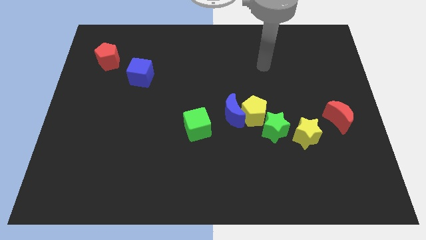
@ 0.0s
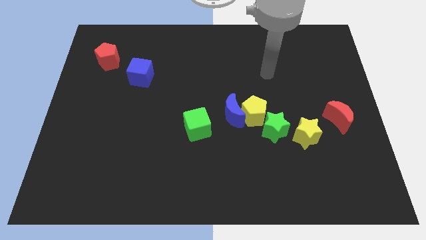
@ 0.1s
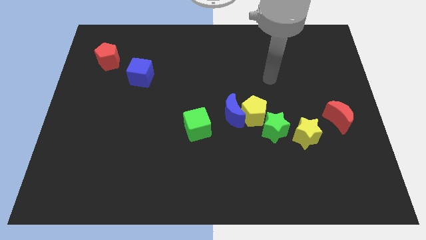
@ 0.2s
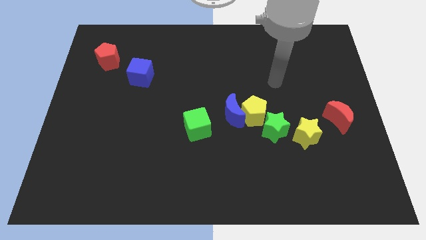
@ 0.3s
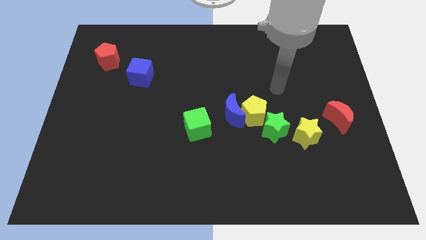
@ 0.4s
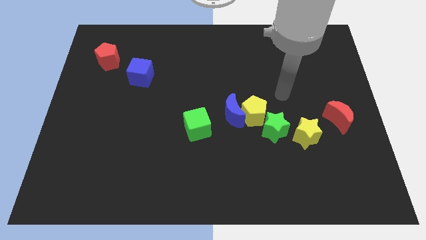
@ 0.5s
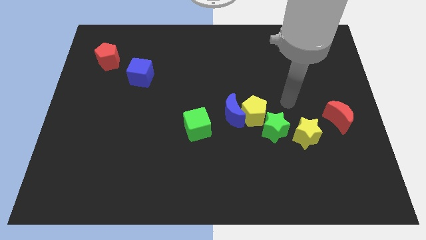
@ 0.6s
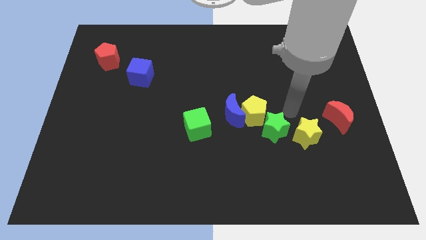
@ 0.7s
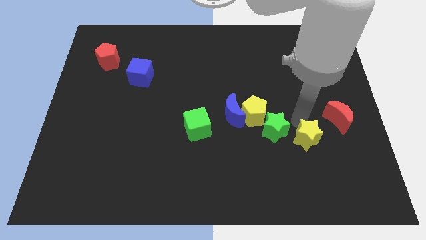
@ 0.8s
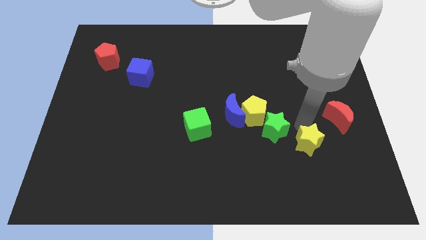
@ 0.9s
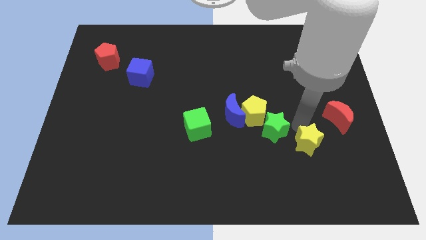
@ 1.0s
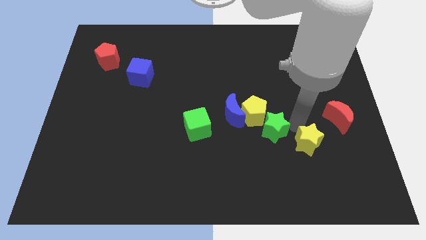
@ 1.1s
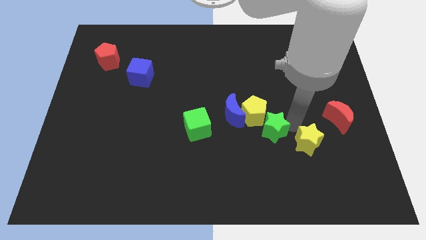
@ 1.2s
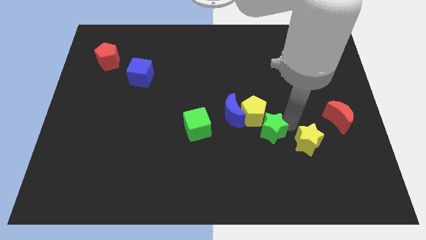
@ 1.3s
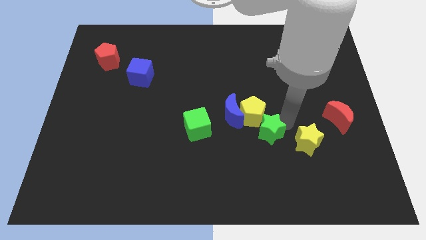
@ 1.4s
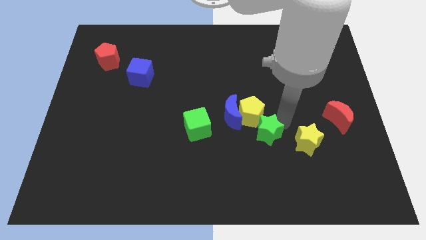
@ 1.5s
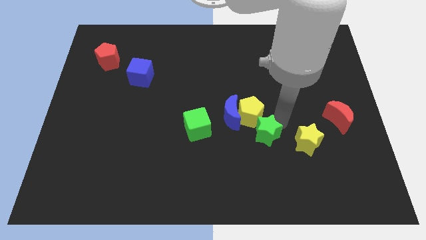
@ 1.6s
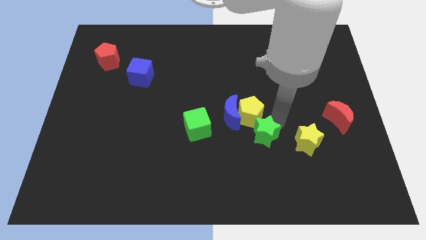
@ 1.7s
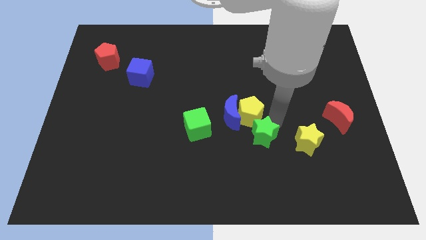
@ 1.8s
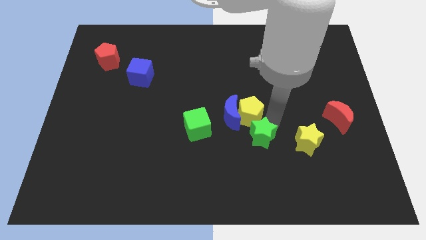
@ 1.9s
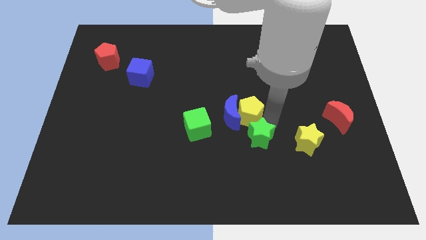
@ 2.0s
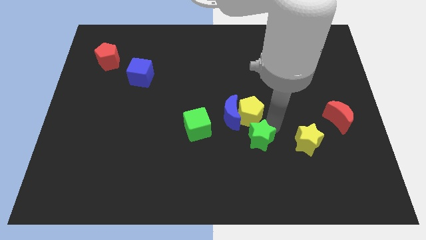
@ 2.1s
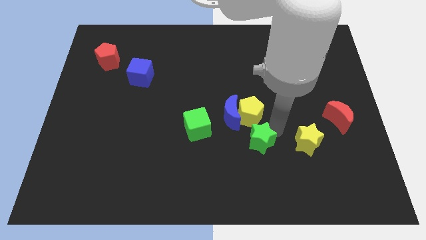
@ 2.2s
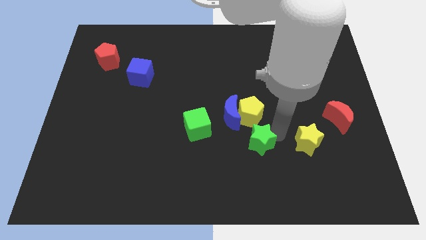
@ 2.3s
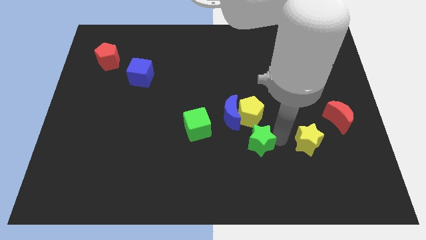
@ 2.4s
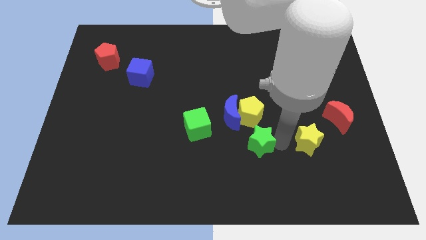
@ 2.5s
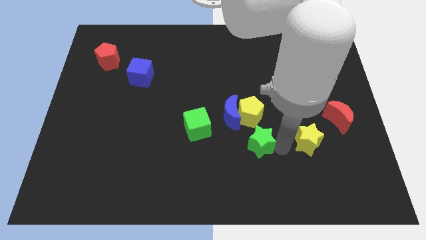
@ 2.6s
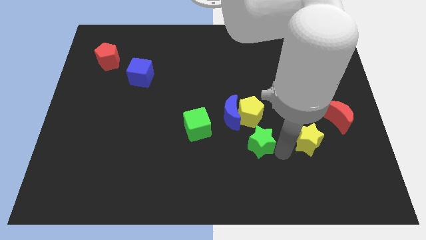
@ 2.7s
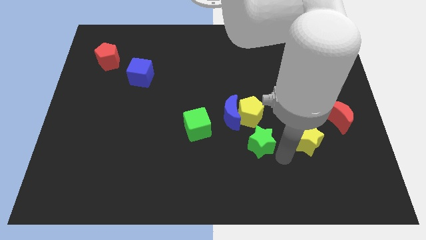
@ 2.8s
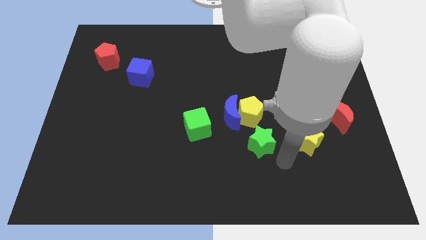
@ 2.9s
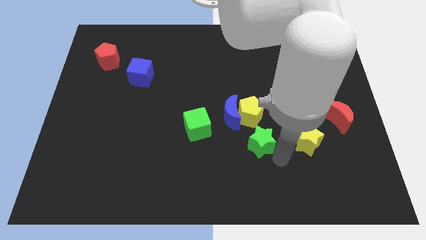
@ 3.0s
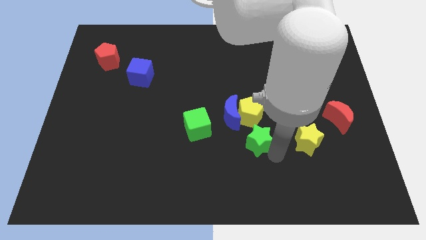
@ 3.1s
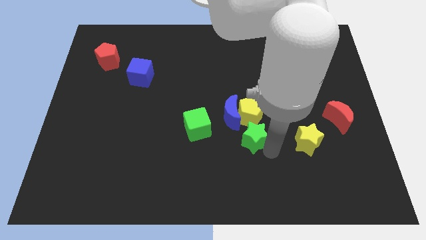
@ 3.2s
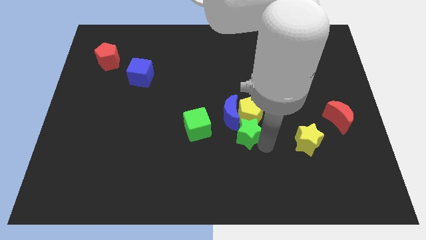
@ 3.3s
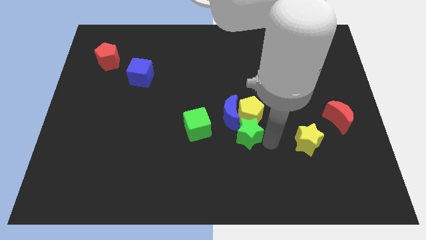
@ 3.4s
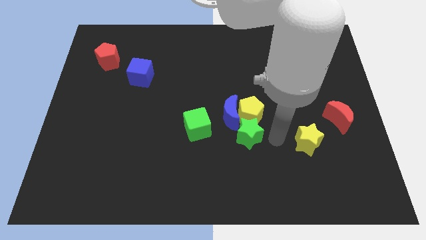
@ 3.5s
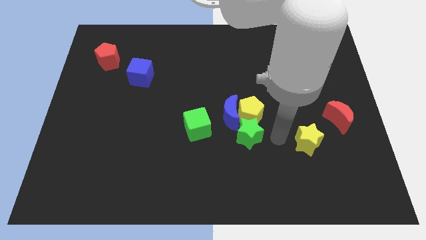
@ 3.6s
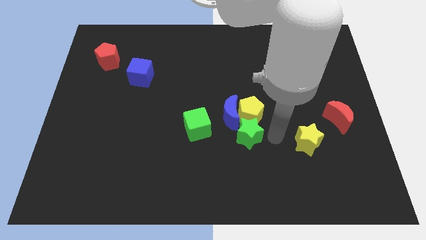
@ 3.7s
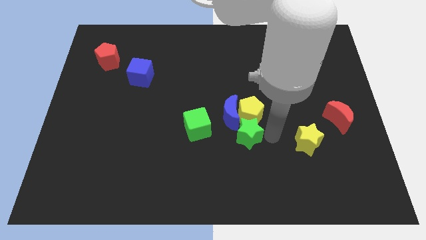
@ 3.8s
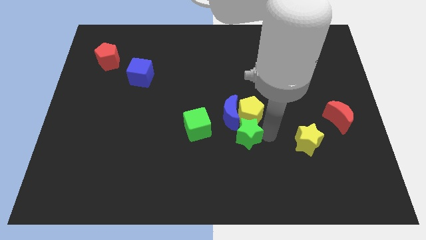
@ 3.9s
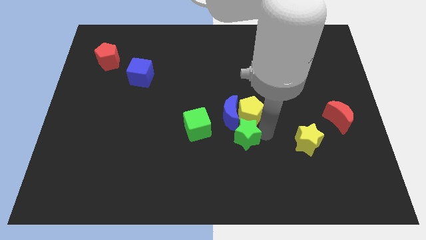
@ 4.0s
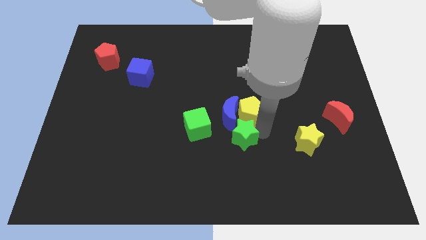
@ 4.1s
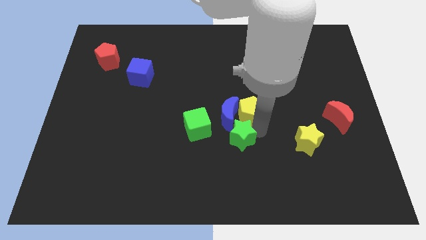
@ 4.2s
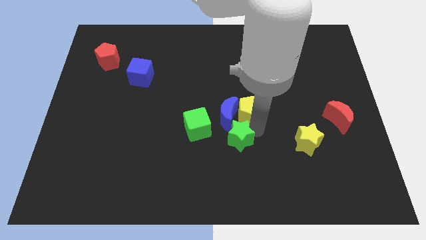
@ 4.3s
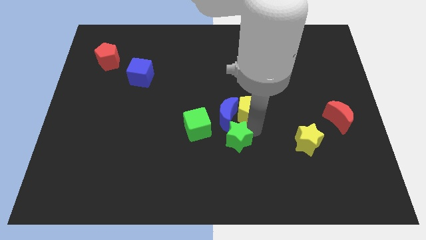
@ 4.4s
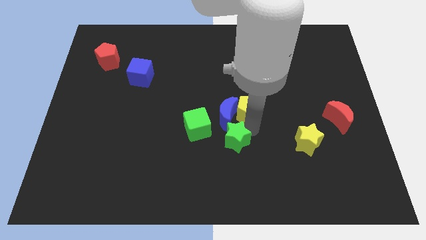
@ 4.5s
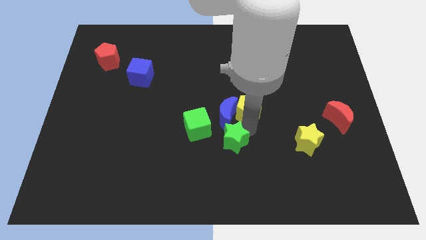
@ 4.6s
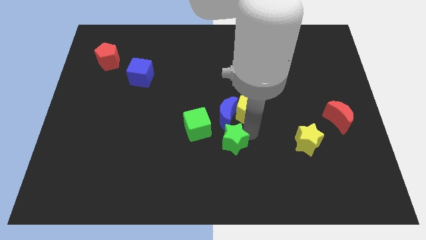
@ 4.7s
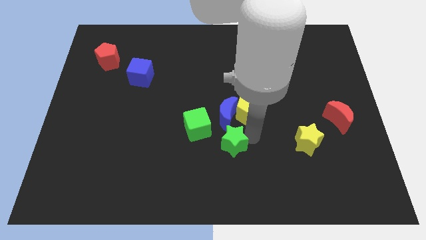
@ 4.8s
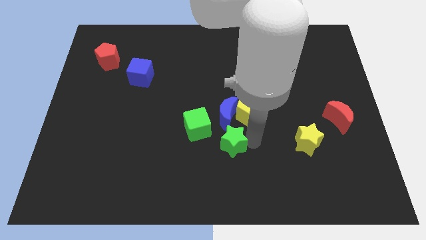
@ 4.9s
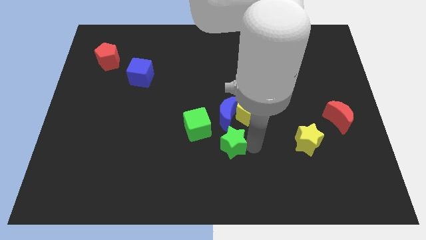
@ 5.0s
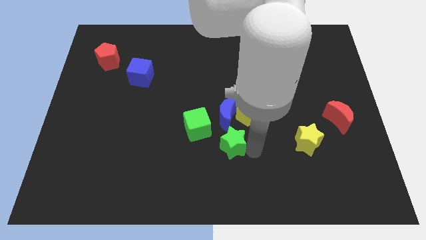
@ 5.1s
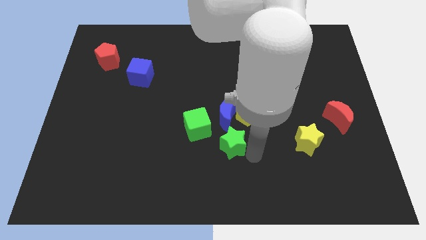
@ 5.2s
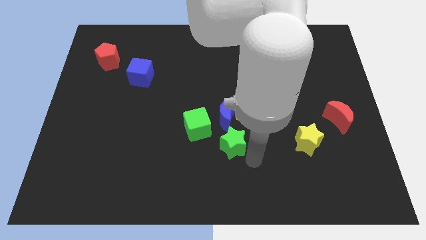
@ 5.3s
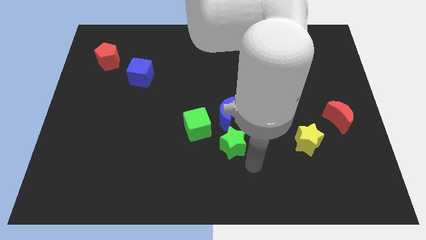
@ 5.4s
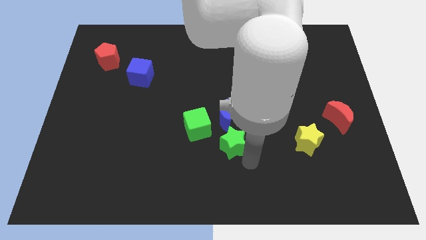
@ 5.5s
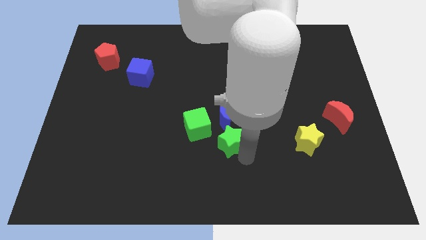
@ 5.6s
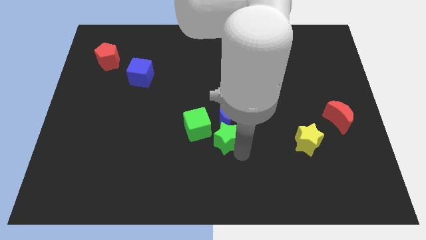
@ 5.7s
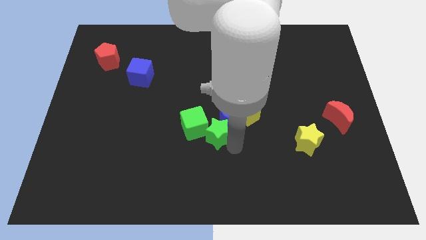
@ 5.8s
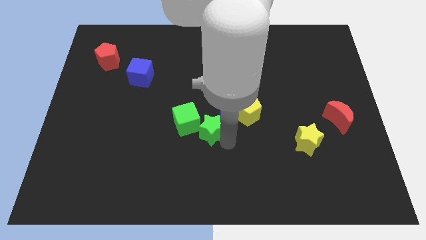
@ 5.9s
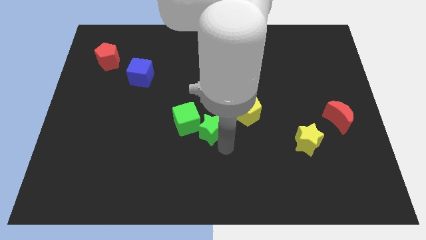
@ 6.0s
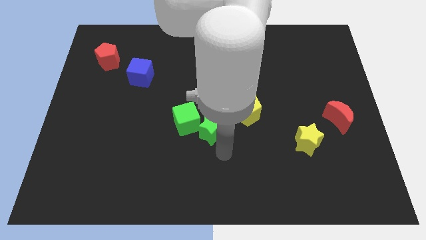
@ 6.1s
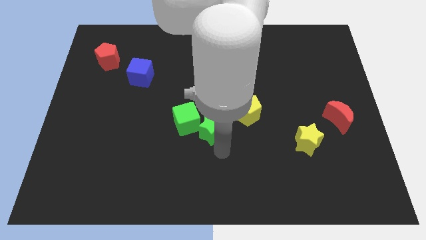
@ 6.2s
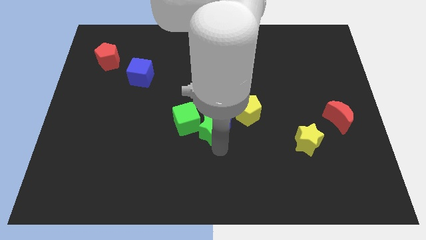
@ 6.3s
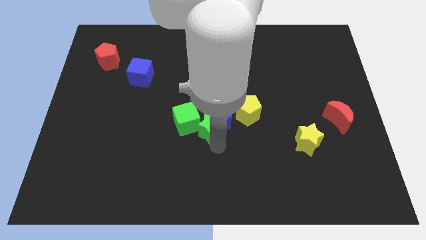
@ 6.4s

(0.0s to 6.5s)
slide the green star just left of the yellow pentagon
